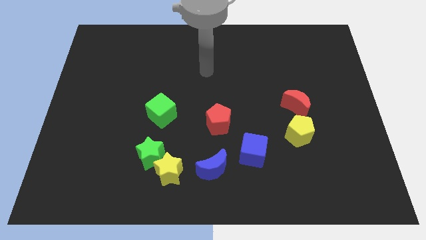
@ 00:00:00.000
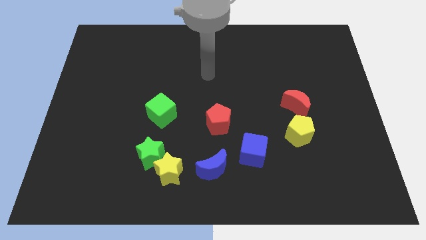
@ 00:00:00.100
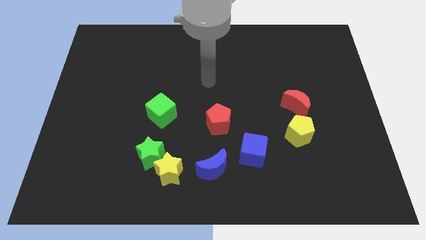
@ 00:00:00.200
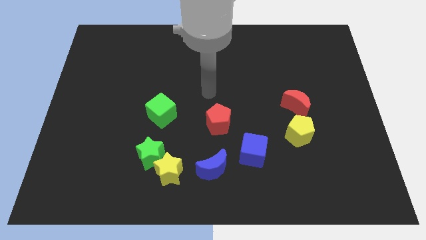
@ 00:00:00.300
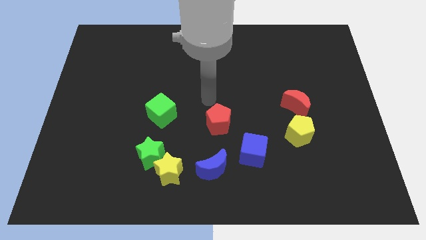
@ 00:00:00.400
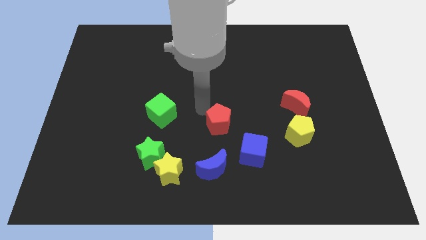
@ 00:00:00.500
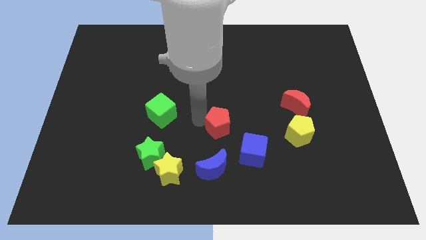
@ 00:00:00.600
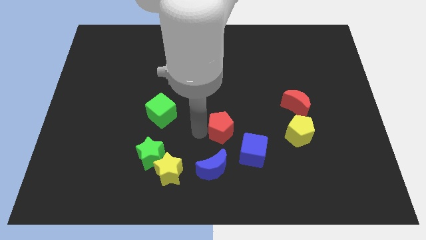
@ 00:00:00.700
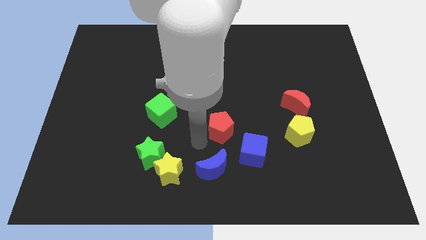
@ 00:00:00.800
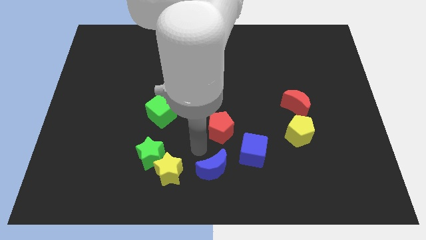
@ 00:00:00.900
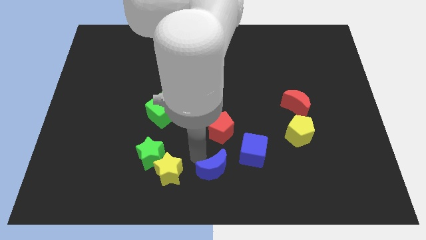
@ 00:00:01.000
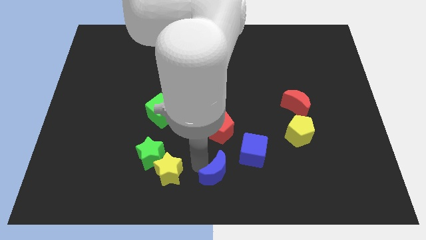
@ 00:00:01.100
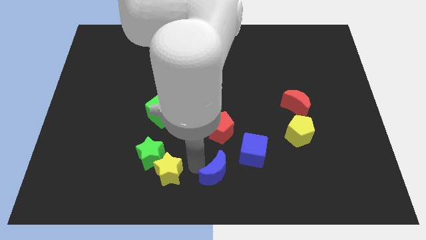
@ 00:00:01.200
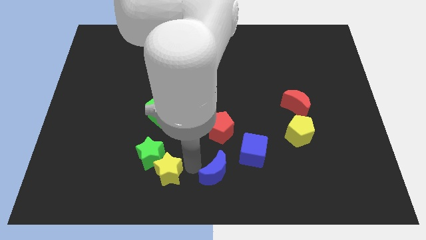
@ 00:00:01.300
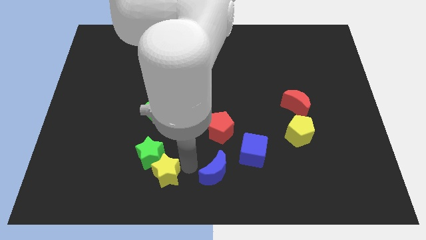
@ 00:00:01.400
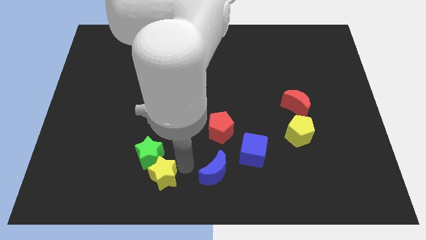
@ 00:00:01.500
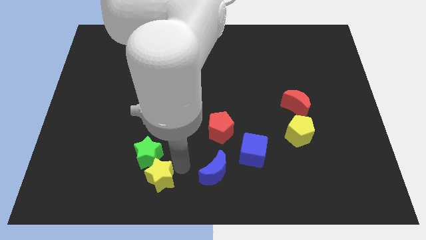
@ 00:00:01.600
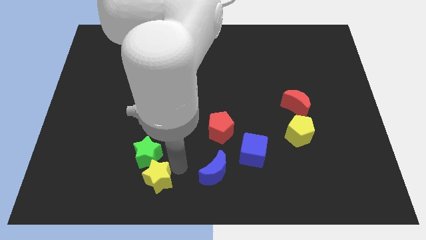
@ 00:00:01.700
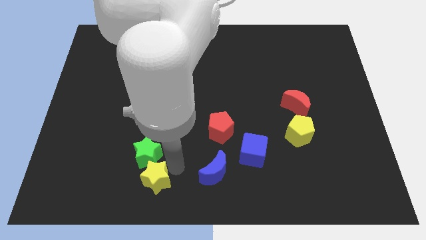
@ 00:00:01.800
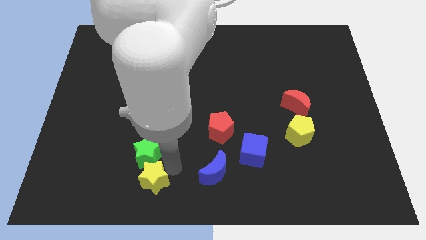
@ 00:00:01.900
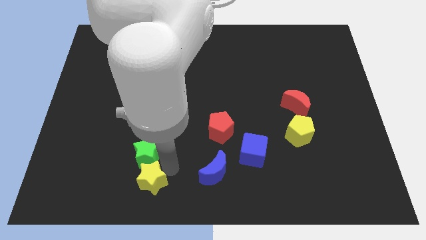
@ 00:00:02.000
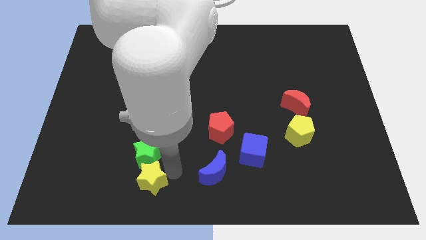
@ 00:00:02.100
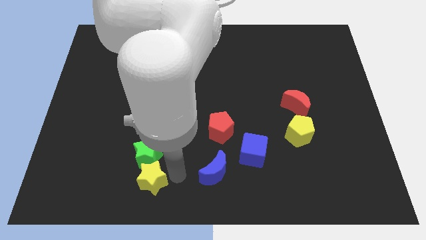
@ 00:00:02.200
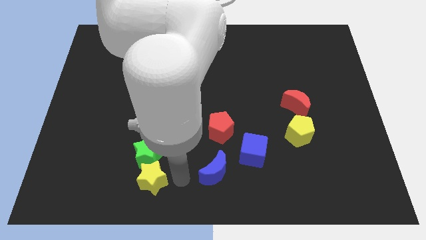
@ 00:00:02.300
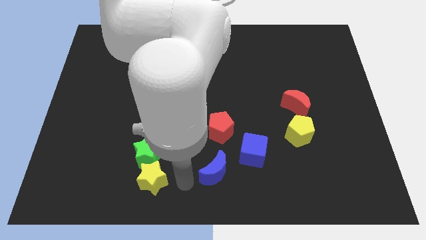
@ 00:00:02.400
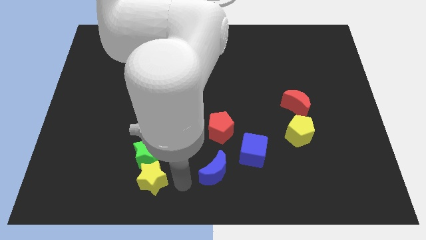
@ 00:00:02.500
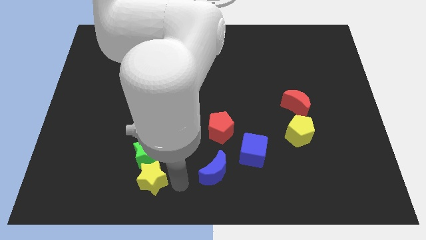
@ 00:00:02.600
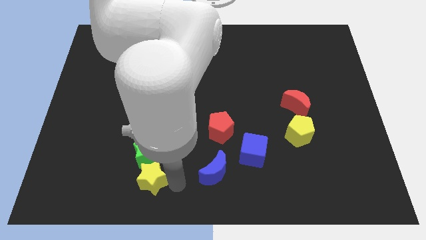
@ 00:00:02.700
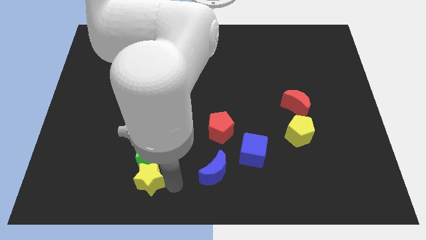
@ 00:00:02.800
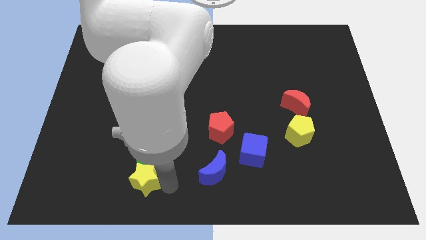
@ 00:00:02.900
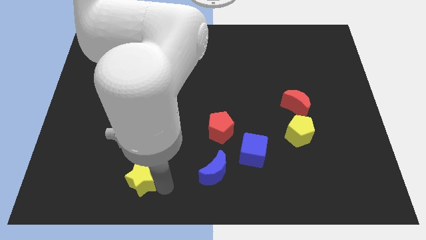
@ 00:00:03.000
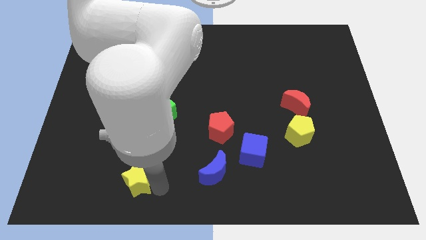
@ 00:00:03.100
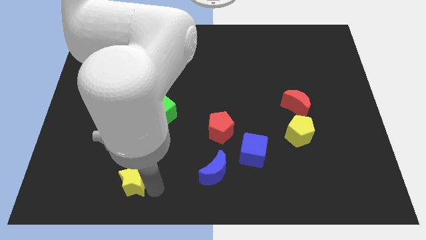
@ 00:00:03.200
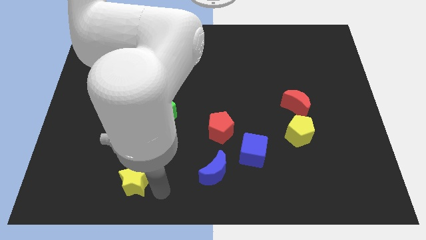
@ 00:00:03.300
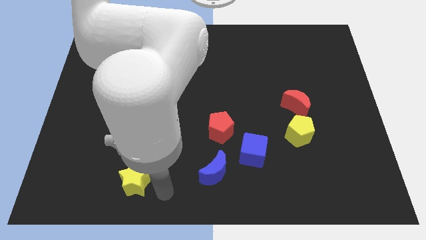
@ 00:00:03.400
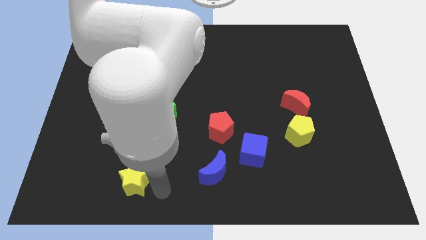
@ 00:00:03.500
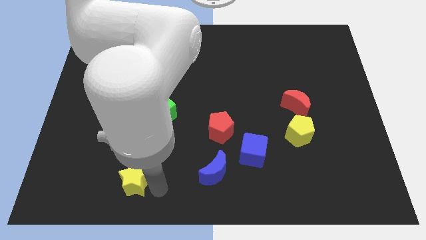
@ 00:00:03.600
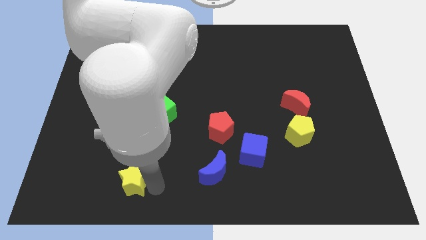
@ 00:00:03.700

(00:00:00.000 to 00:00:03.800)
slightly move the yellow star left

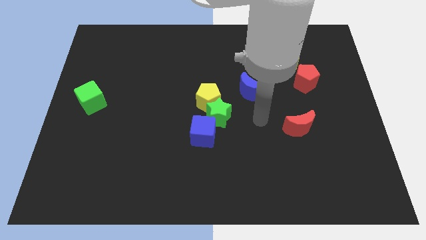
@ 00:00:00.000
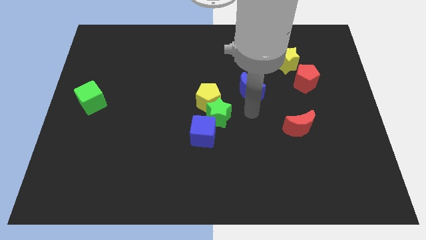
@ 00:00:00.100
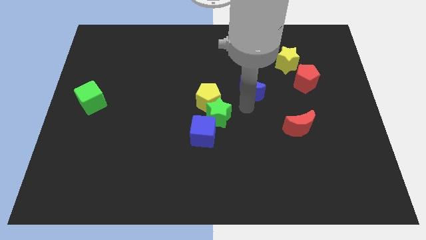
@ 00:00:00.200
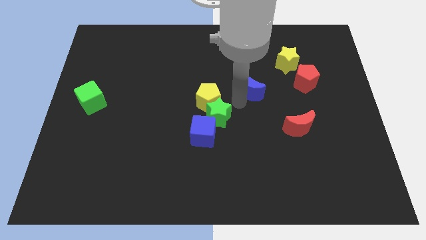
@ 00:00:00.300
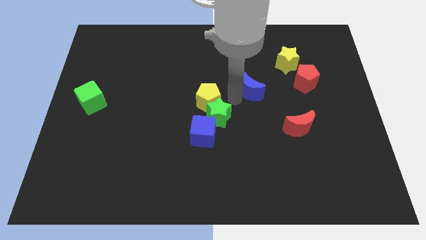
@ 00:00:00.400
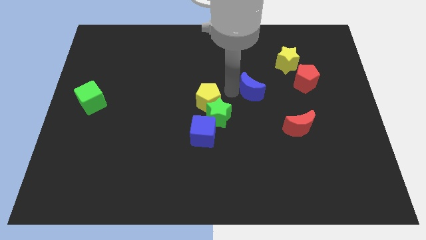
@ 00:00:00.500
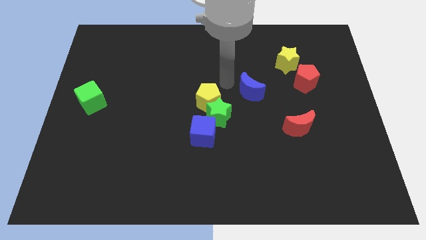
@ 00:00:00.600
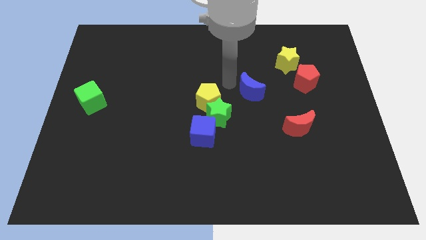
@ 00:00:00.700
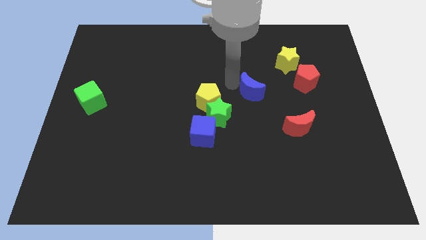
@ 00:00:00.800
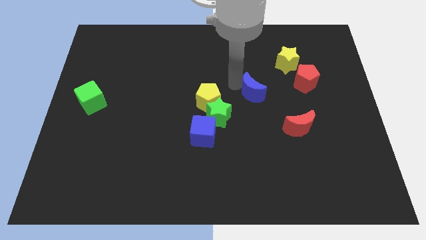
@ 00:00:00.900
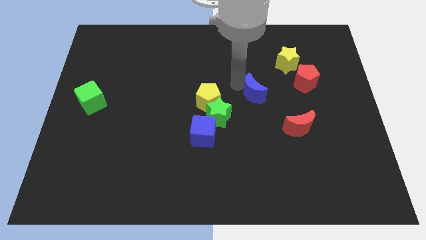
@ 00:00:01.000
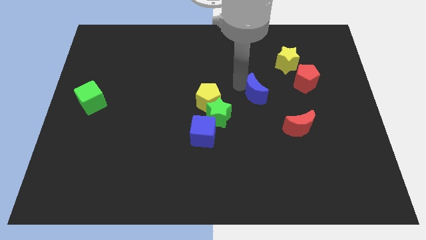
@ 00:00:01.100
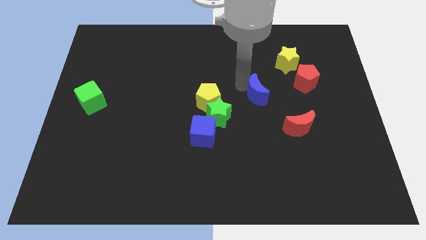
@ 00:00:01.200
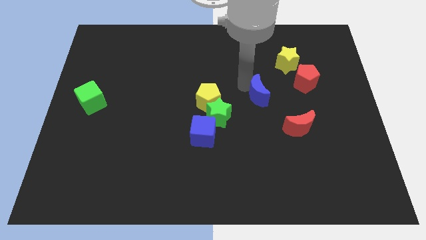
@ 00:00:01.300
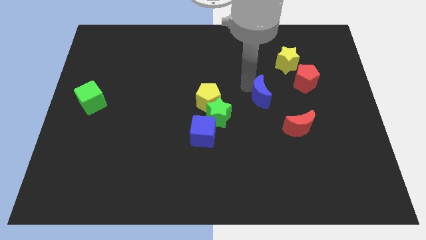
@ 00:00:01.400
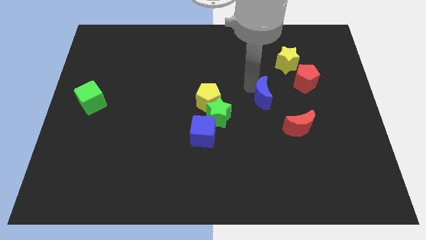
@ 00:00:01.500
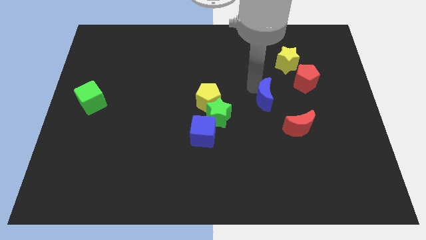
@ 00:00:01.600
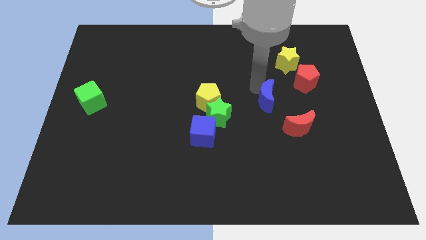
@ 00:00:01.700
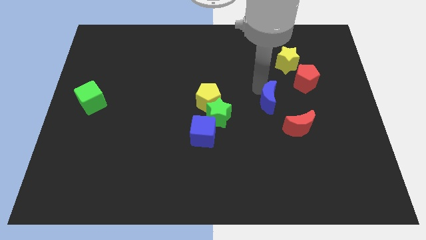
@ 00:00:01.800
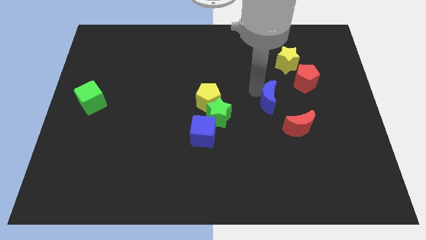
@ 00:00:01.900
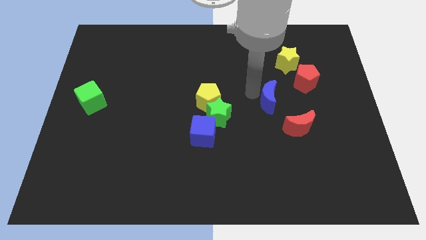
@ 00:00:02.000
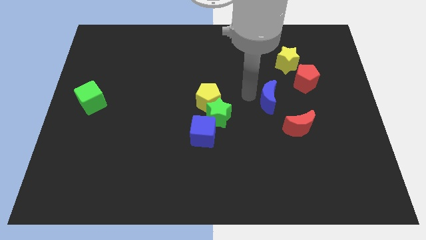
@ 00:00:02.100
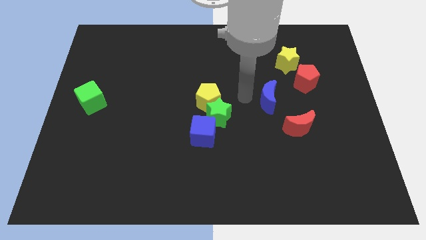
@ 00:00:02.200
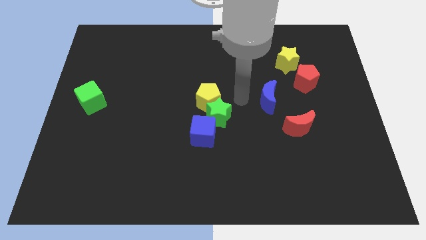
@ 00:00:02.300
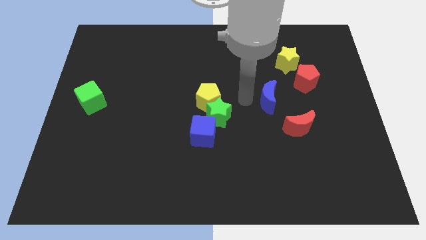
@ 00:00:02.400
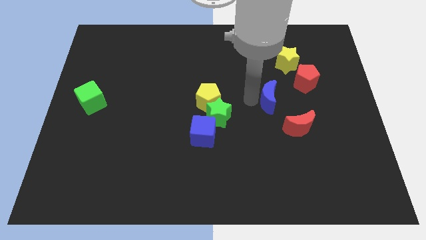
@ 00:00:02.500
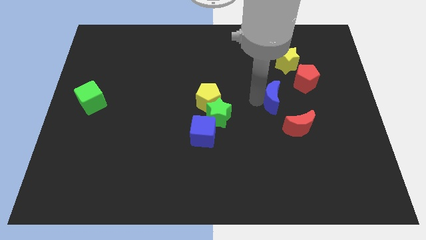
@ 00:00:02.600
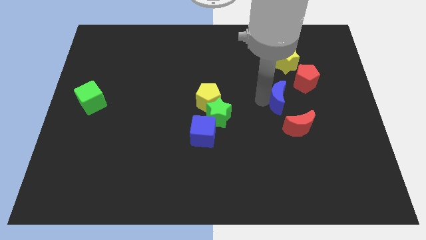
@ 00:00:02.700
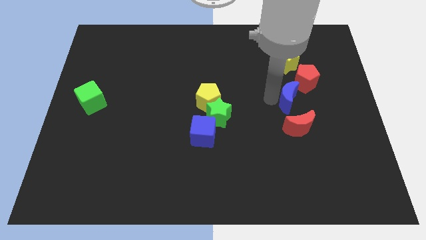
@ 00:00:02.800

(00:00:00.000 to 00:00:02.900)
slightly move the blue moon downwards and right

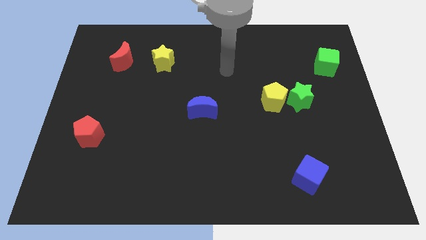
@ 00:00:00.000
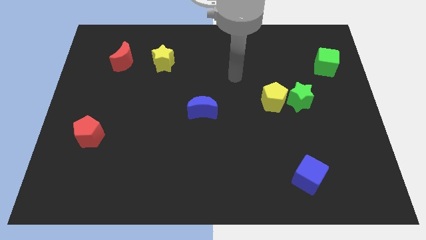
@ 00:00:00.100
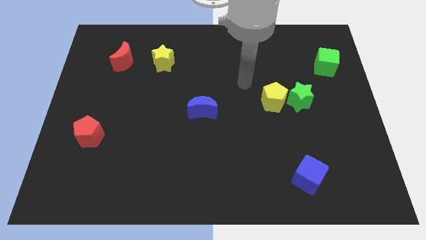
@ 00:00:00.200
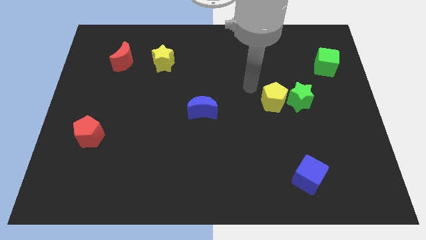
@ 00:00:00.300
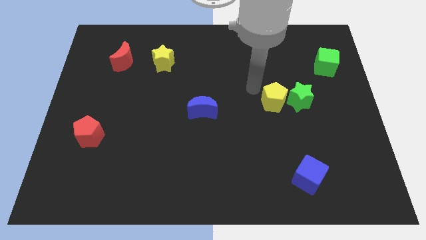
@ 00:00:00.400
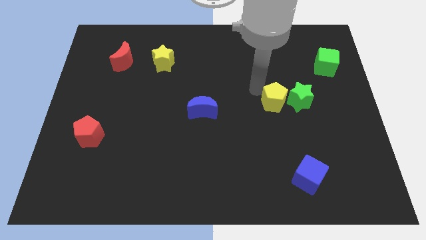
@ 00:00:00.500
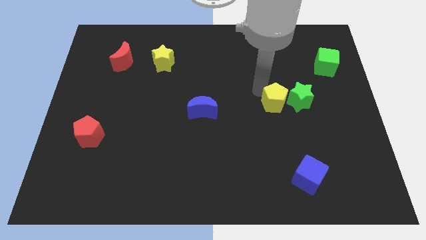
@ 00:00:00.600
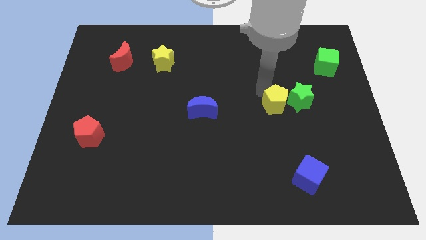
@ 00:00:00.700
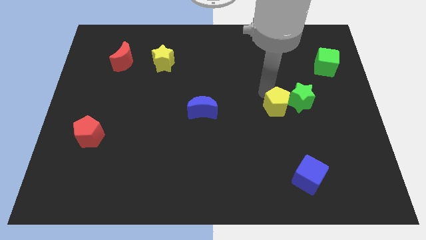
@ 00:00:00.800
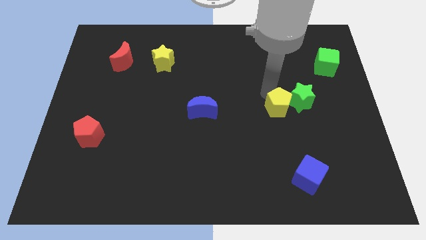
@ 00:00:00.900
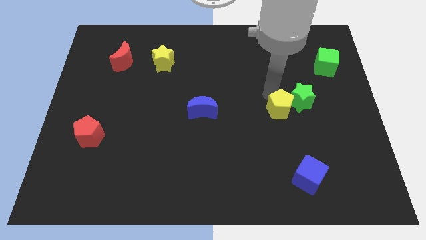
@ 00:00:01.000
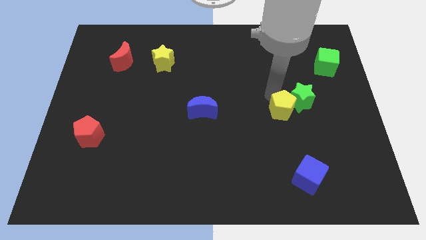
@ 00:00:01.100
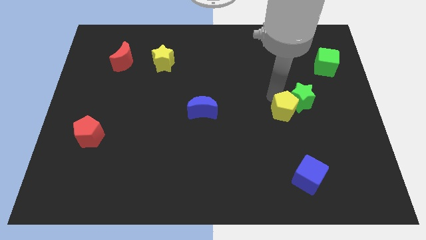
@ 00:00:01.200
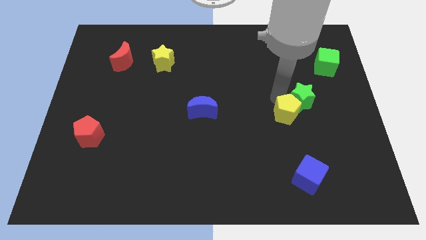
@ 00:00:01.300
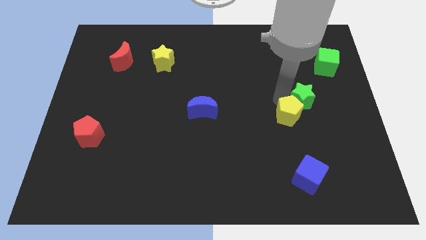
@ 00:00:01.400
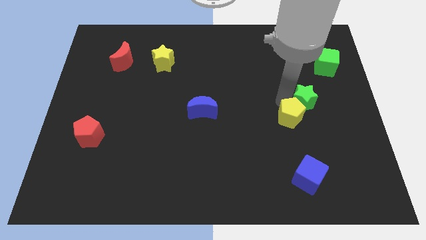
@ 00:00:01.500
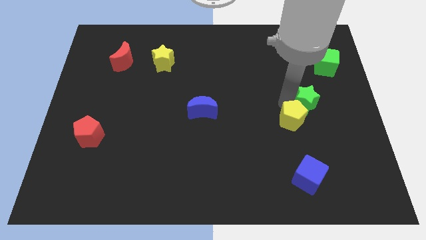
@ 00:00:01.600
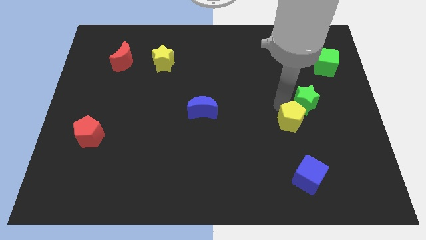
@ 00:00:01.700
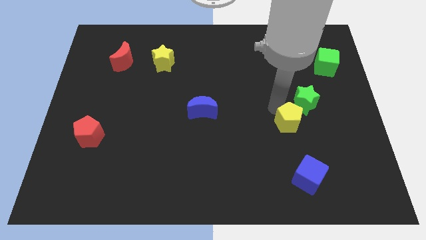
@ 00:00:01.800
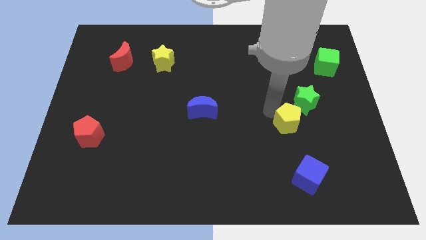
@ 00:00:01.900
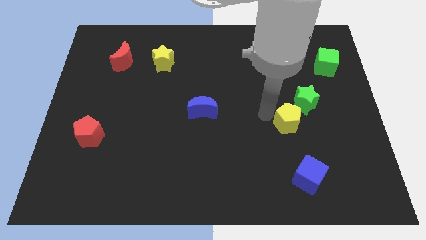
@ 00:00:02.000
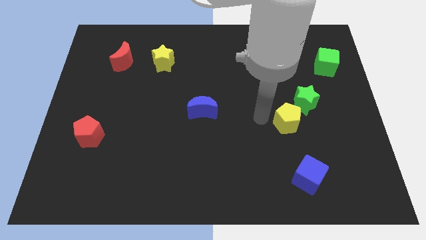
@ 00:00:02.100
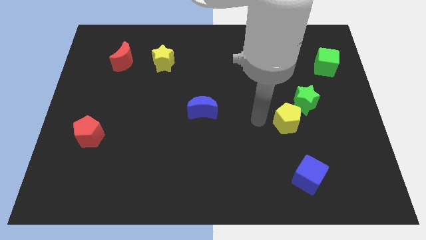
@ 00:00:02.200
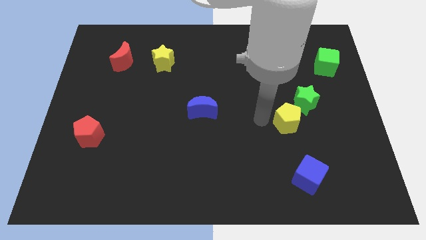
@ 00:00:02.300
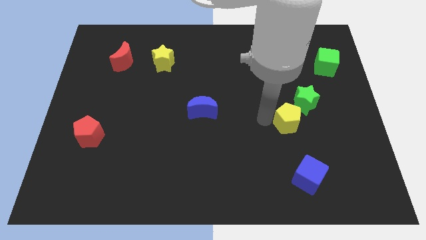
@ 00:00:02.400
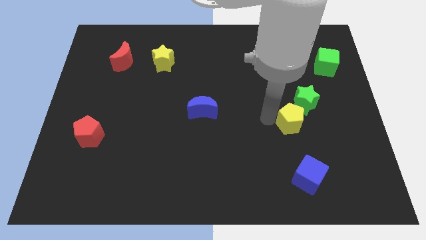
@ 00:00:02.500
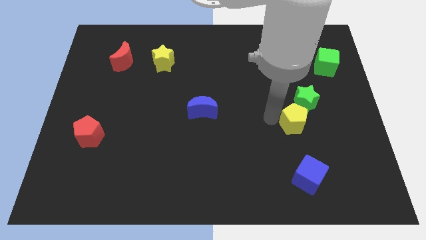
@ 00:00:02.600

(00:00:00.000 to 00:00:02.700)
push the yellow pentagon downwards and then to the right a little bit
